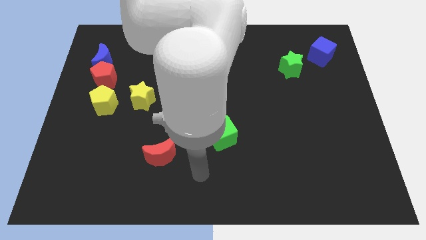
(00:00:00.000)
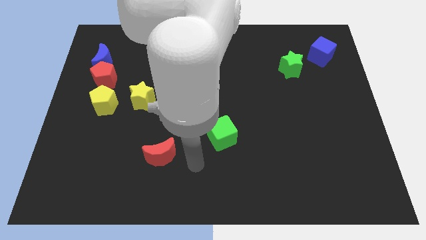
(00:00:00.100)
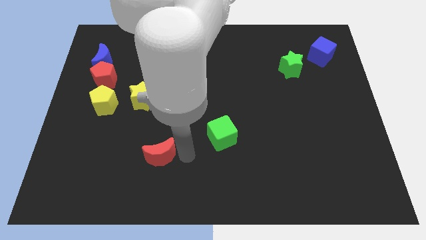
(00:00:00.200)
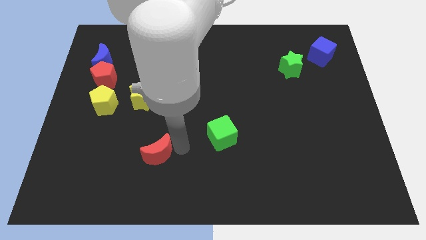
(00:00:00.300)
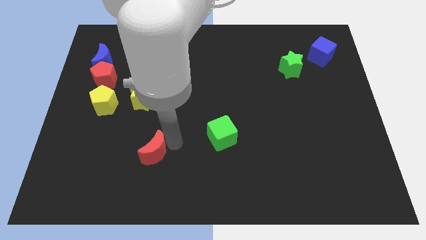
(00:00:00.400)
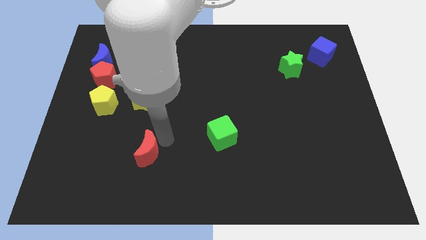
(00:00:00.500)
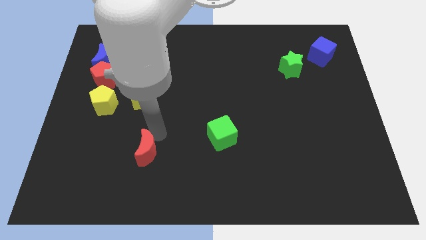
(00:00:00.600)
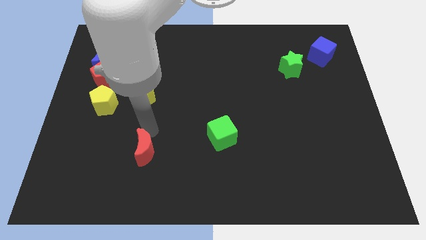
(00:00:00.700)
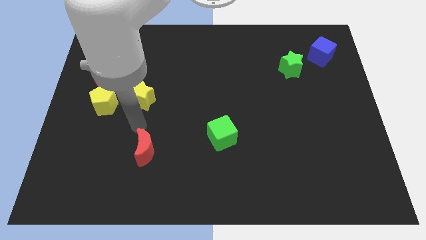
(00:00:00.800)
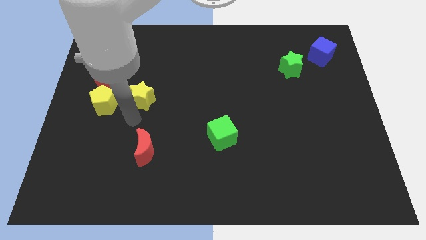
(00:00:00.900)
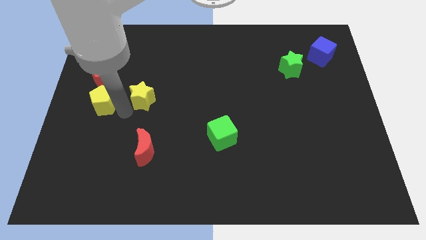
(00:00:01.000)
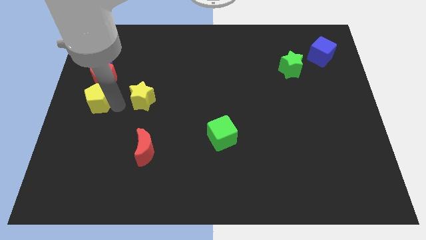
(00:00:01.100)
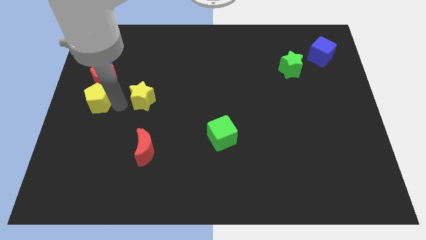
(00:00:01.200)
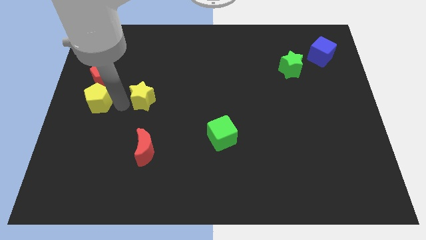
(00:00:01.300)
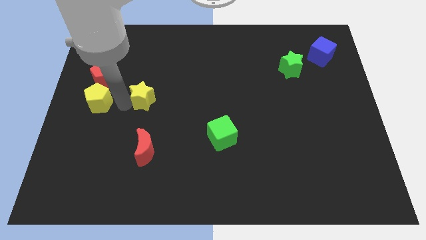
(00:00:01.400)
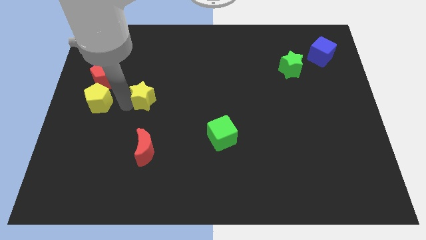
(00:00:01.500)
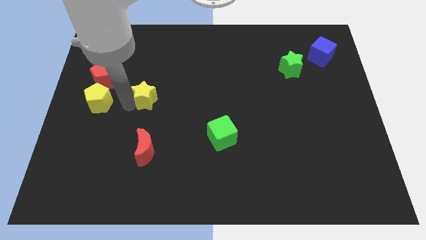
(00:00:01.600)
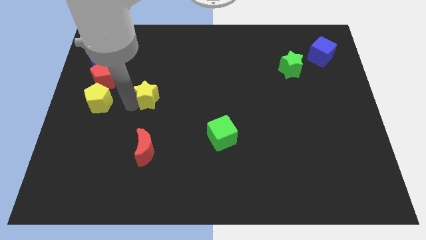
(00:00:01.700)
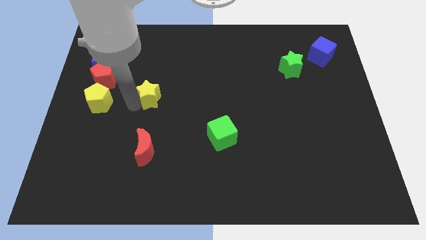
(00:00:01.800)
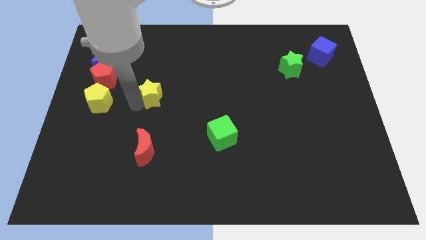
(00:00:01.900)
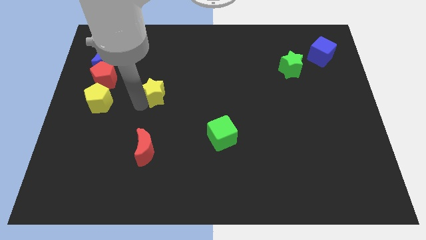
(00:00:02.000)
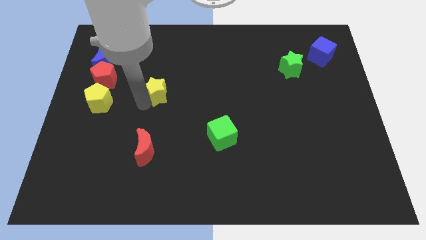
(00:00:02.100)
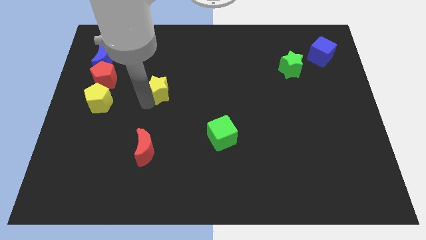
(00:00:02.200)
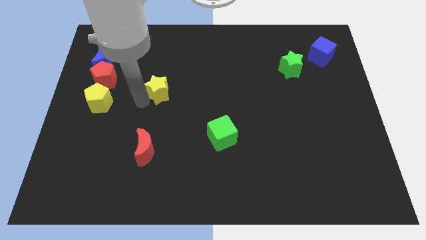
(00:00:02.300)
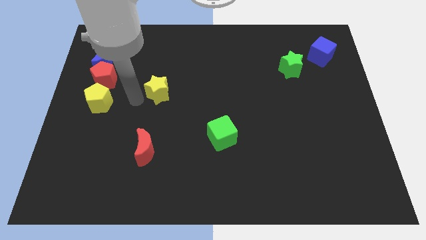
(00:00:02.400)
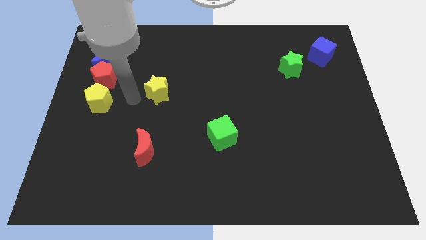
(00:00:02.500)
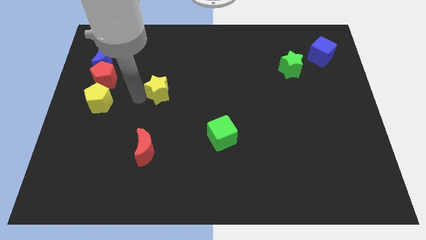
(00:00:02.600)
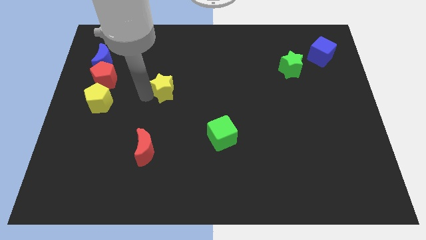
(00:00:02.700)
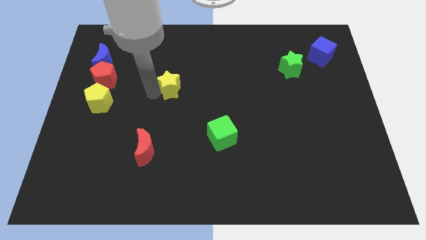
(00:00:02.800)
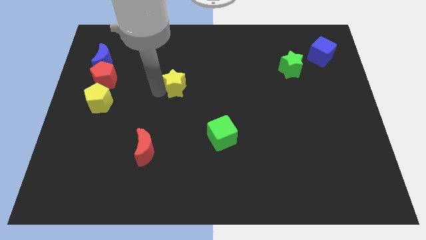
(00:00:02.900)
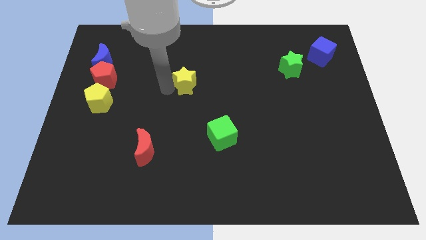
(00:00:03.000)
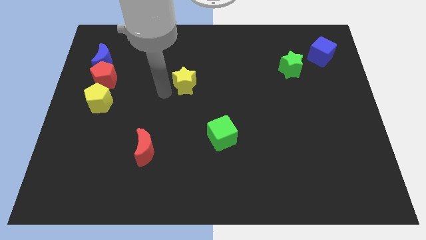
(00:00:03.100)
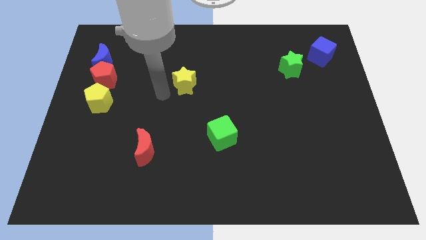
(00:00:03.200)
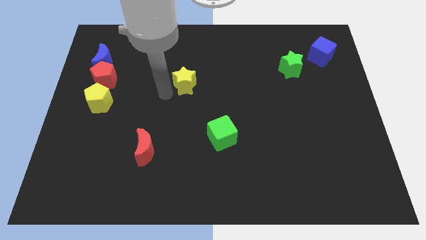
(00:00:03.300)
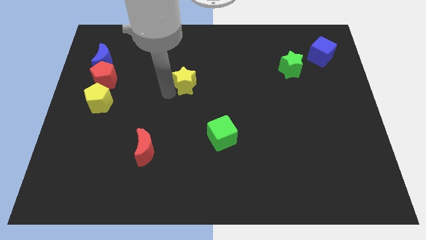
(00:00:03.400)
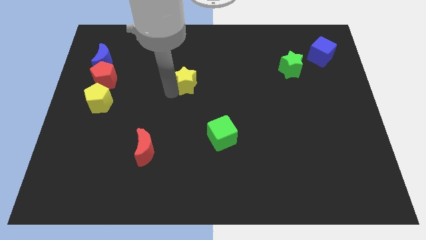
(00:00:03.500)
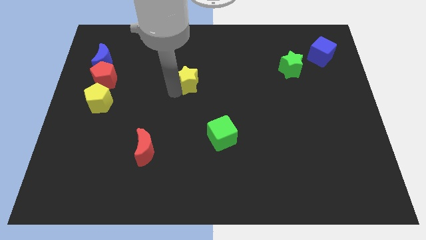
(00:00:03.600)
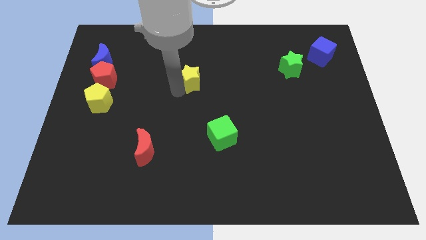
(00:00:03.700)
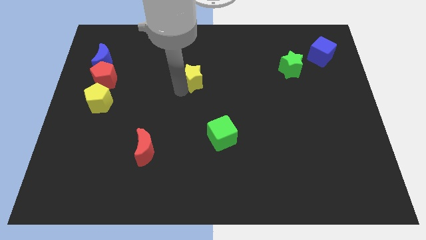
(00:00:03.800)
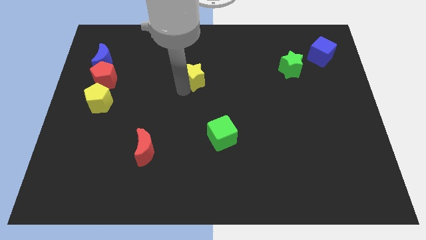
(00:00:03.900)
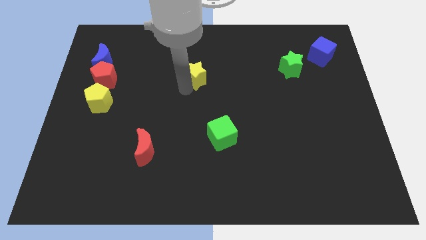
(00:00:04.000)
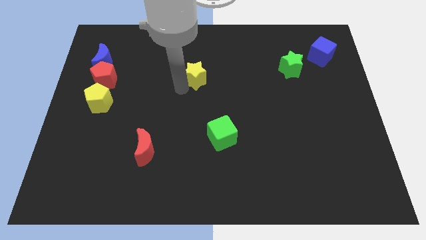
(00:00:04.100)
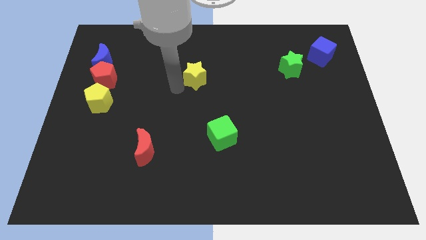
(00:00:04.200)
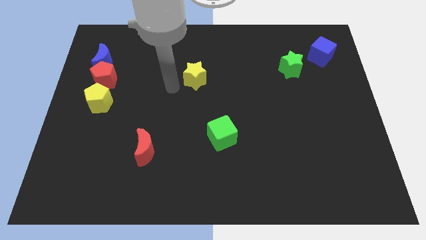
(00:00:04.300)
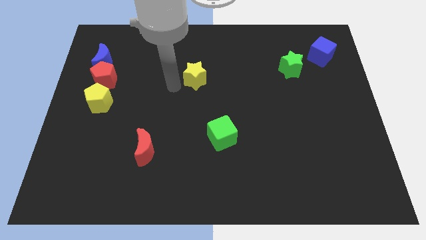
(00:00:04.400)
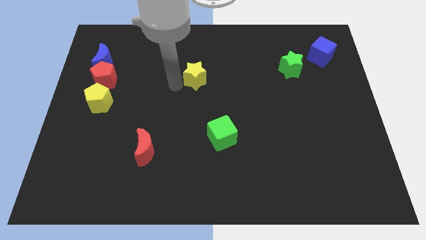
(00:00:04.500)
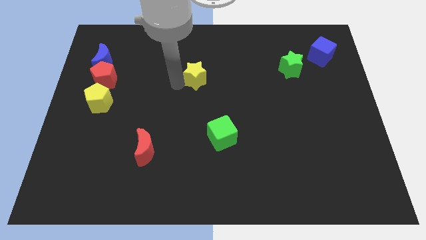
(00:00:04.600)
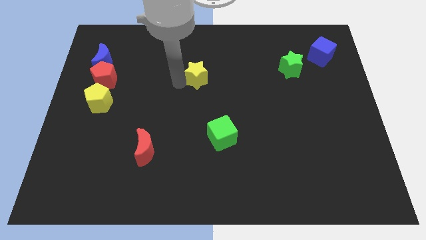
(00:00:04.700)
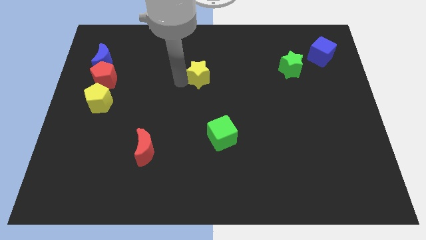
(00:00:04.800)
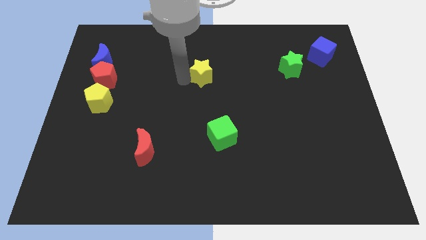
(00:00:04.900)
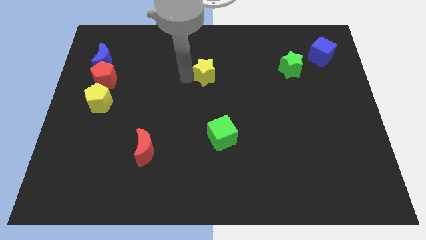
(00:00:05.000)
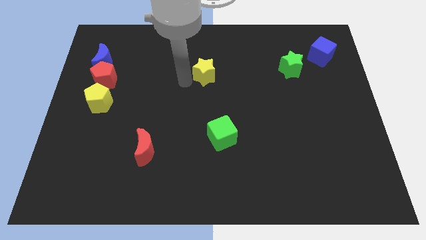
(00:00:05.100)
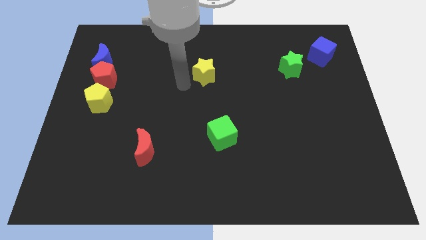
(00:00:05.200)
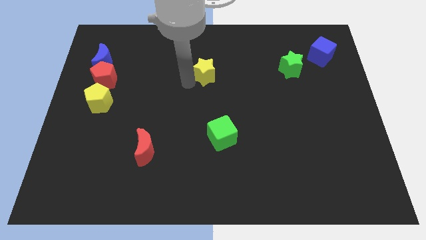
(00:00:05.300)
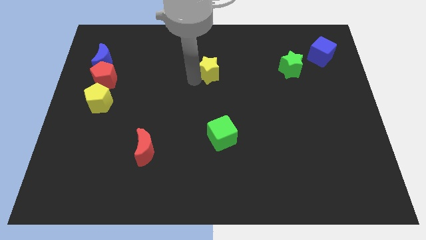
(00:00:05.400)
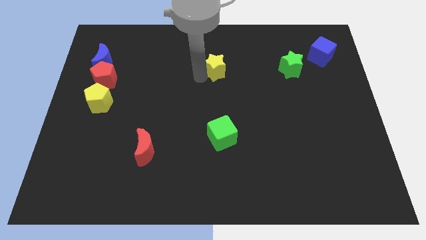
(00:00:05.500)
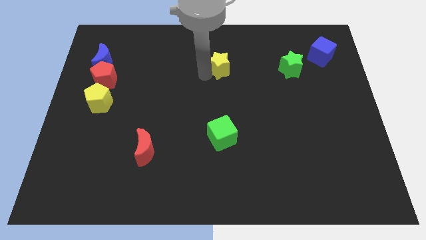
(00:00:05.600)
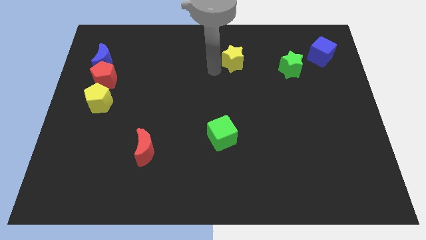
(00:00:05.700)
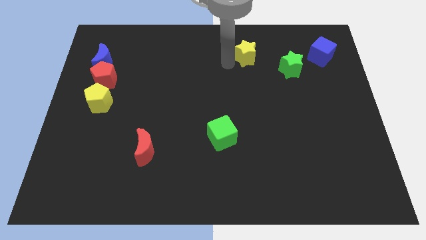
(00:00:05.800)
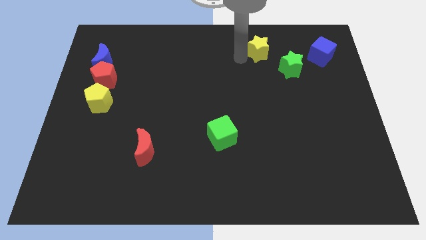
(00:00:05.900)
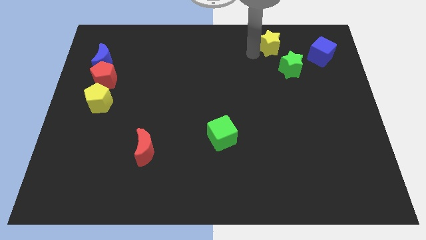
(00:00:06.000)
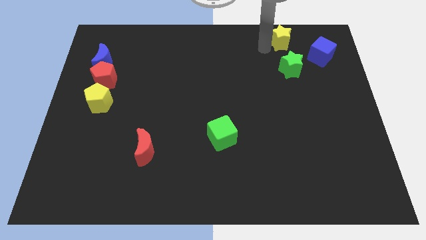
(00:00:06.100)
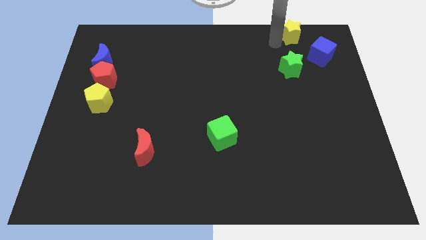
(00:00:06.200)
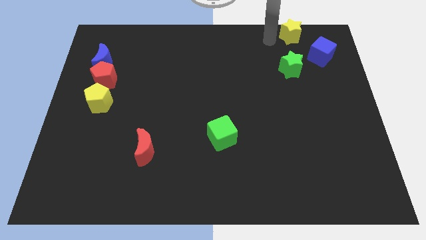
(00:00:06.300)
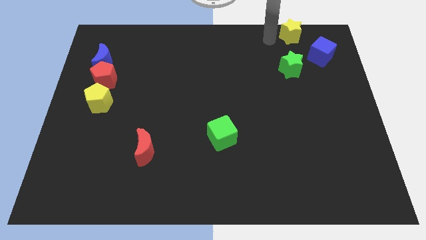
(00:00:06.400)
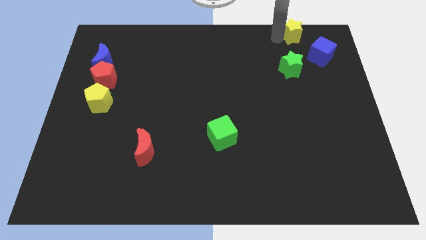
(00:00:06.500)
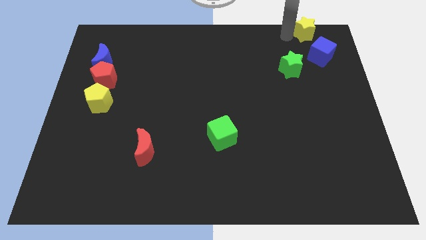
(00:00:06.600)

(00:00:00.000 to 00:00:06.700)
move the yellow star to the upper right corner
